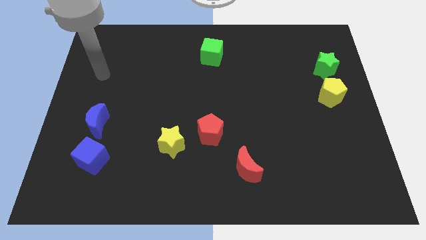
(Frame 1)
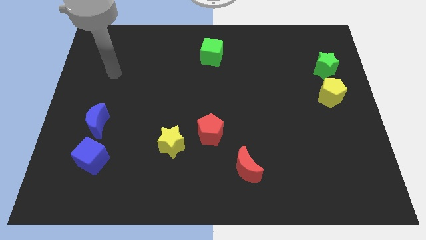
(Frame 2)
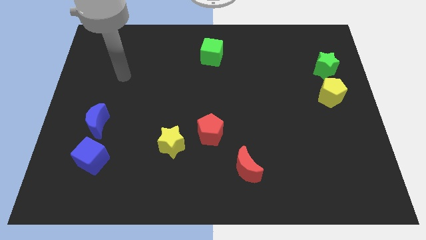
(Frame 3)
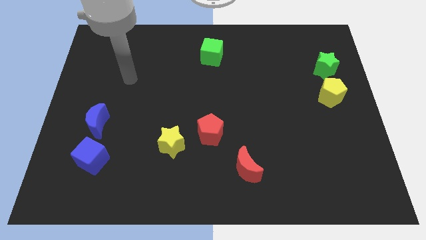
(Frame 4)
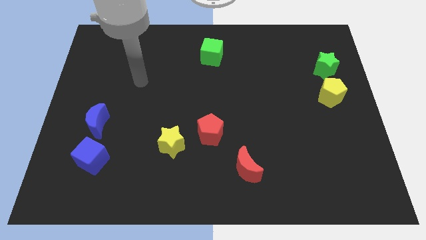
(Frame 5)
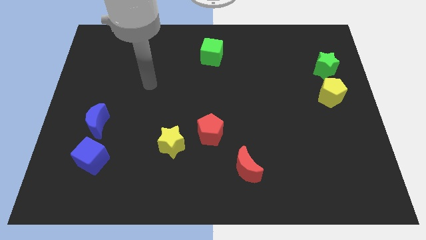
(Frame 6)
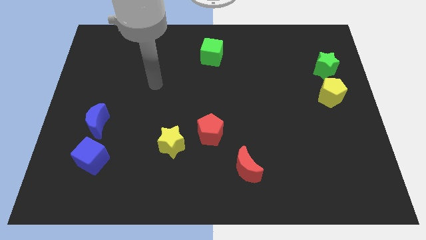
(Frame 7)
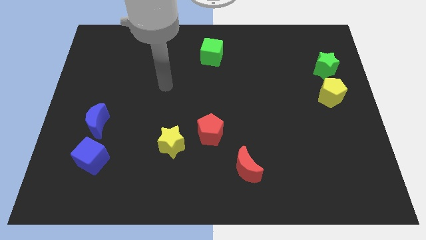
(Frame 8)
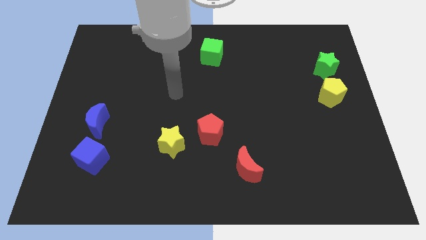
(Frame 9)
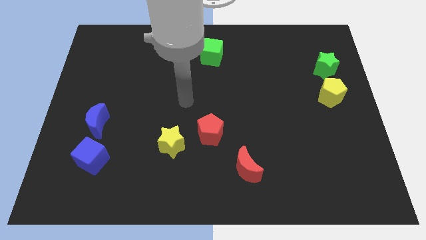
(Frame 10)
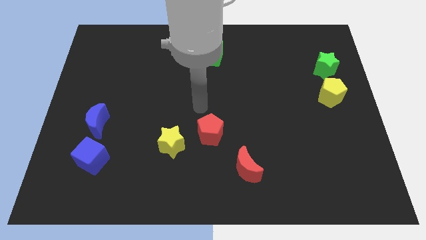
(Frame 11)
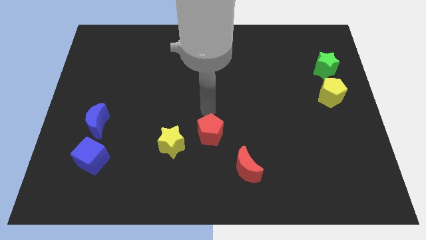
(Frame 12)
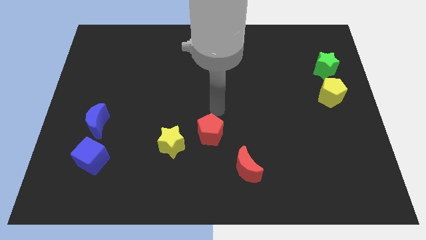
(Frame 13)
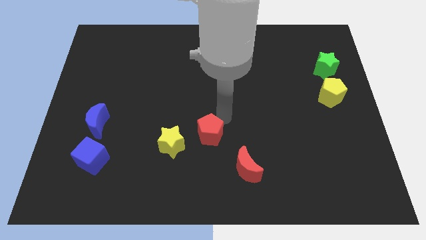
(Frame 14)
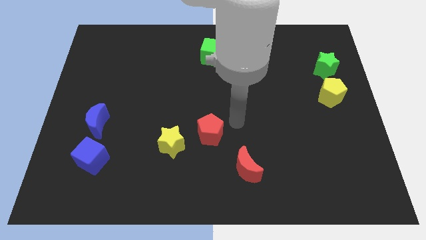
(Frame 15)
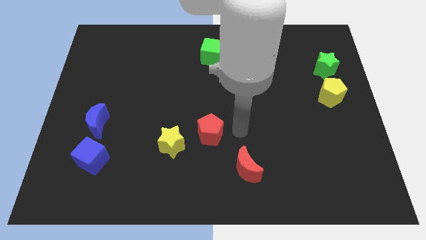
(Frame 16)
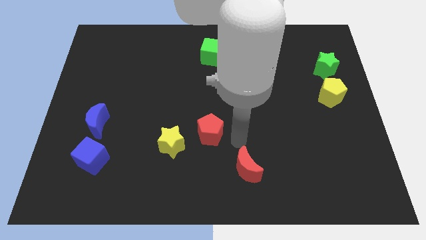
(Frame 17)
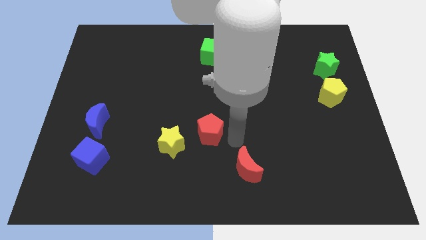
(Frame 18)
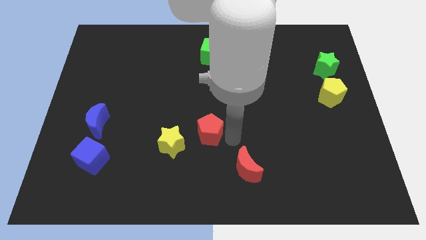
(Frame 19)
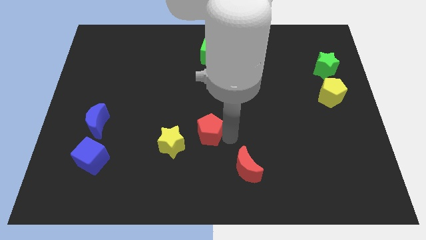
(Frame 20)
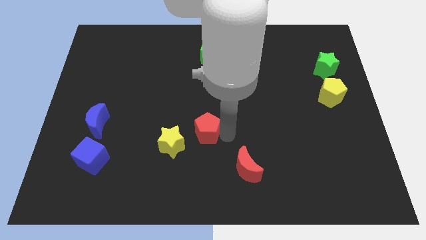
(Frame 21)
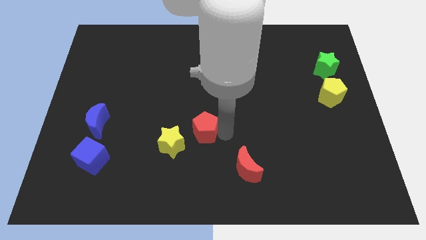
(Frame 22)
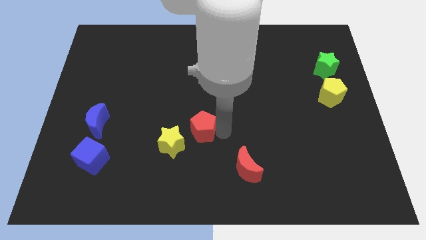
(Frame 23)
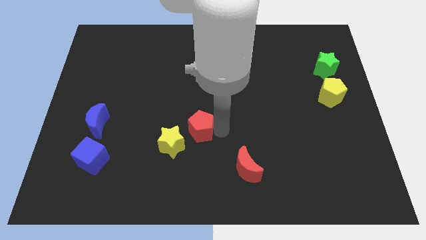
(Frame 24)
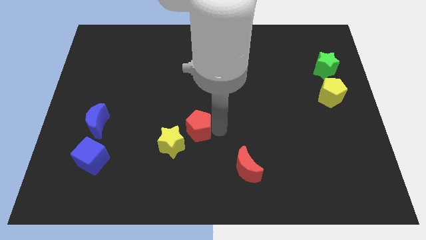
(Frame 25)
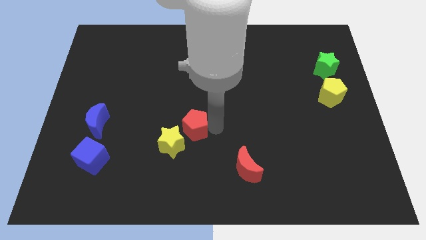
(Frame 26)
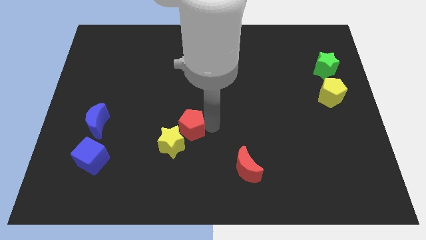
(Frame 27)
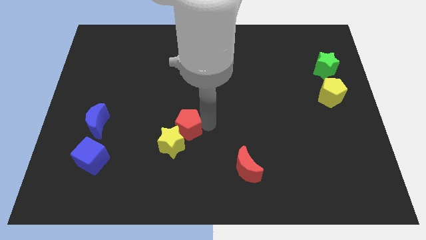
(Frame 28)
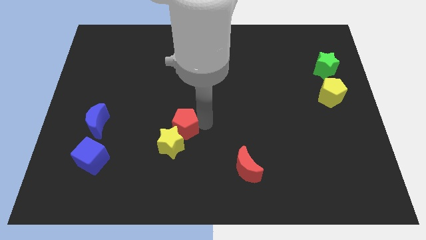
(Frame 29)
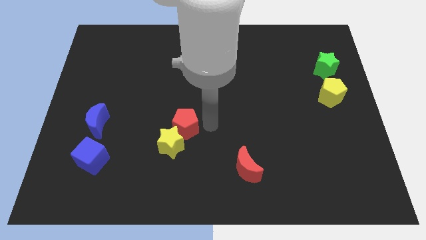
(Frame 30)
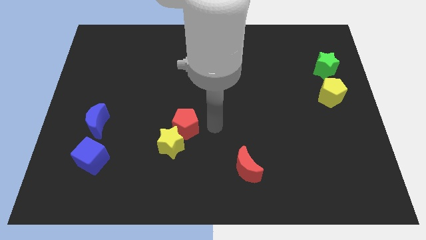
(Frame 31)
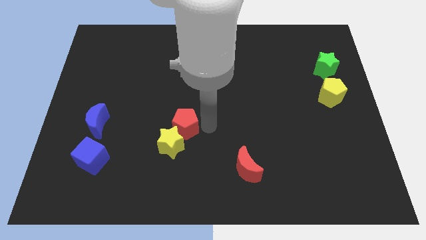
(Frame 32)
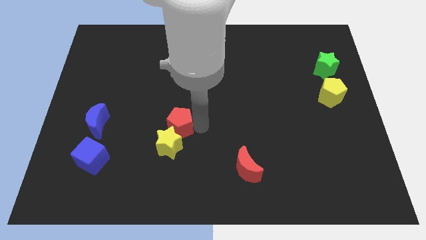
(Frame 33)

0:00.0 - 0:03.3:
push the red pentagon a little bit to the left

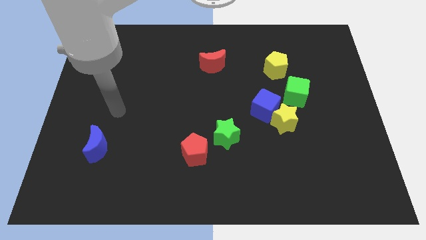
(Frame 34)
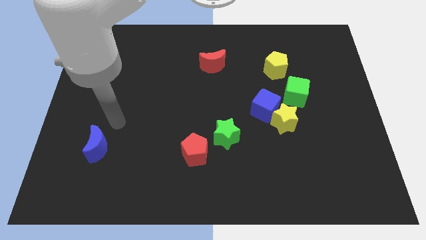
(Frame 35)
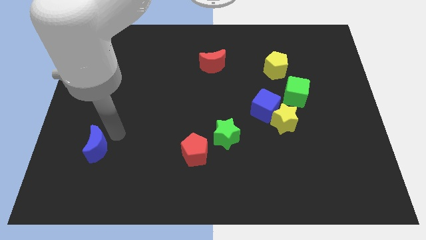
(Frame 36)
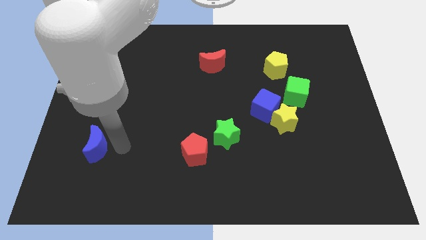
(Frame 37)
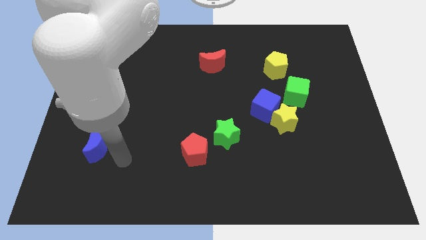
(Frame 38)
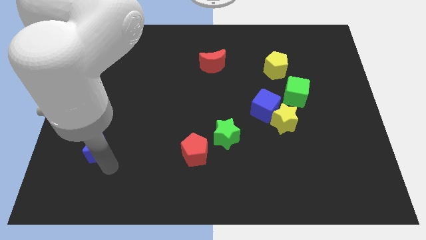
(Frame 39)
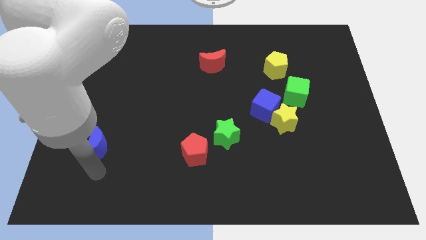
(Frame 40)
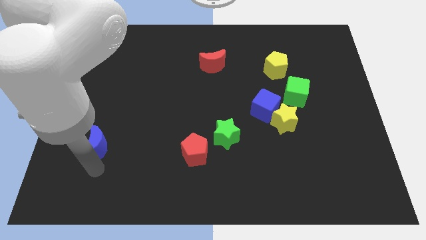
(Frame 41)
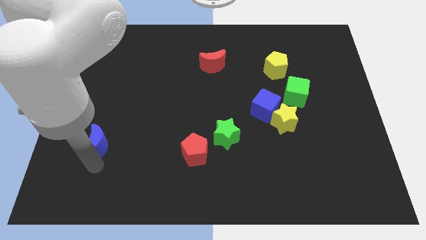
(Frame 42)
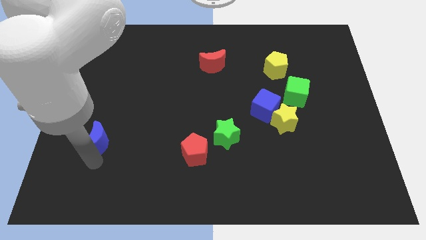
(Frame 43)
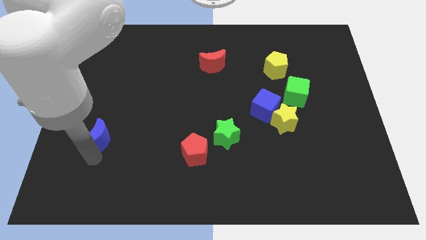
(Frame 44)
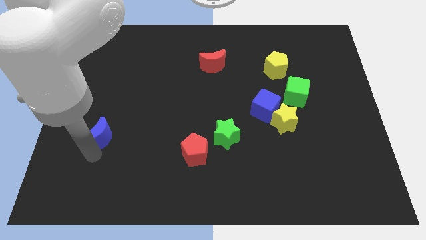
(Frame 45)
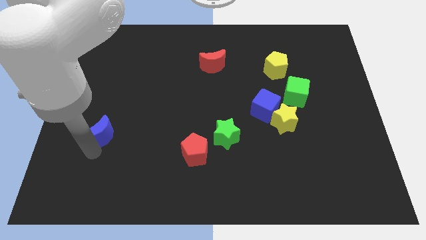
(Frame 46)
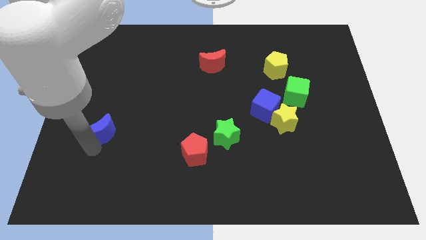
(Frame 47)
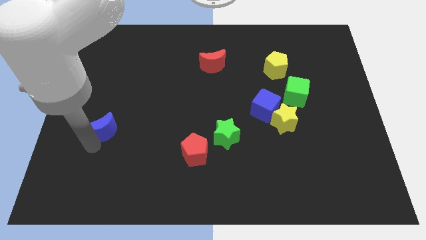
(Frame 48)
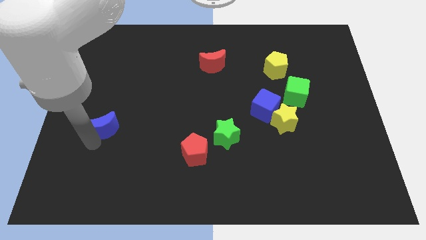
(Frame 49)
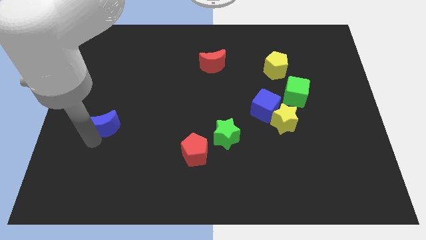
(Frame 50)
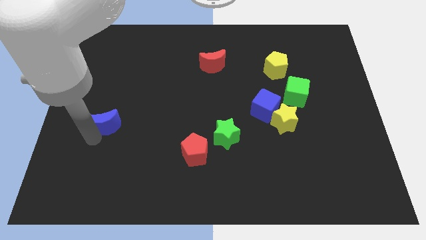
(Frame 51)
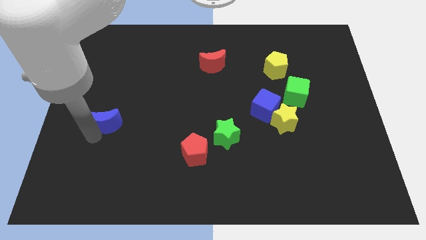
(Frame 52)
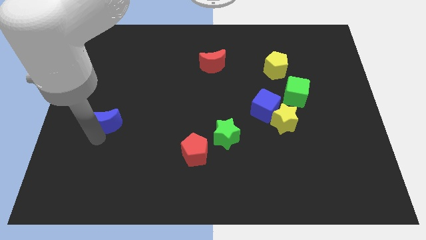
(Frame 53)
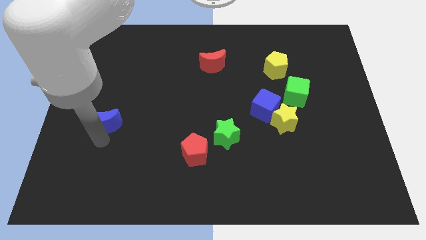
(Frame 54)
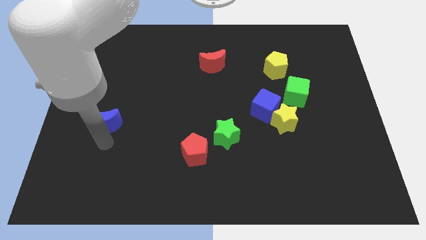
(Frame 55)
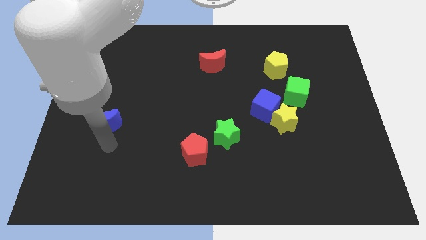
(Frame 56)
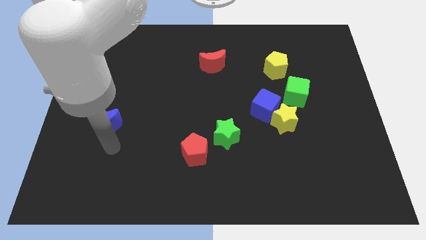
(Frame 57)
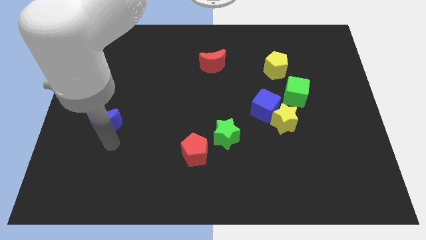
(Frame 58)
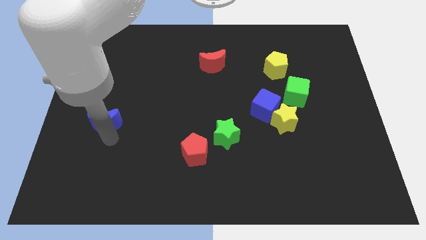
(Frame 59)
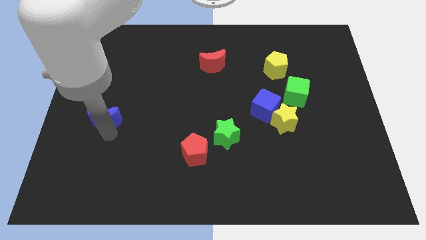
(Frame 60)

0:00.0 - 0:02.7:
slightly push the blue moon up

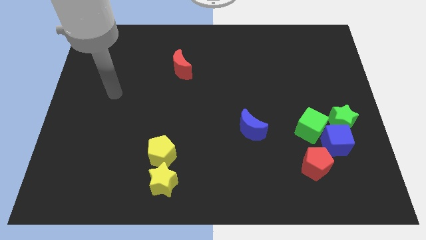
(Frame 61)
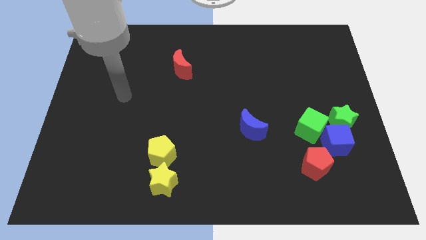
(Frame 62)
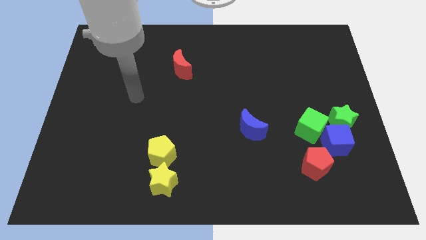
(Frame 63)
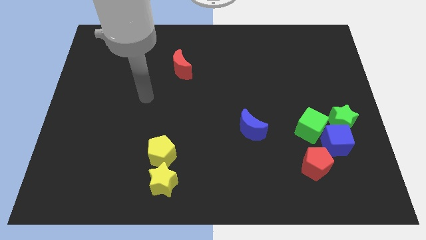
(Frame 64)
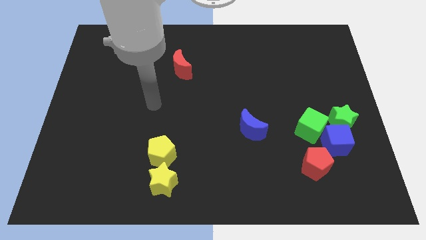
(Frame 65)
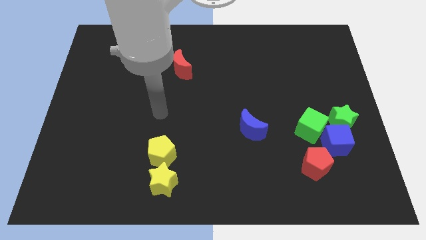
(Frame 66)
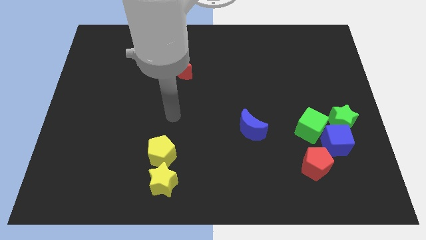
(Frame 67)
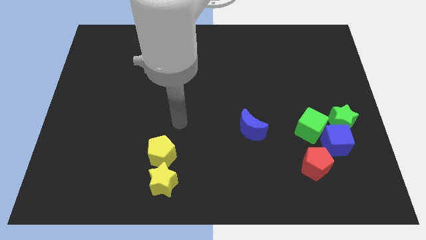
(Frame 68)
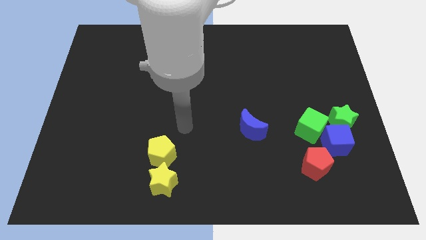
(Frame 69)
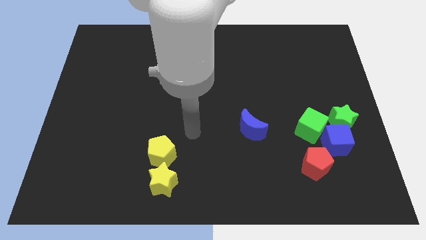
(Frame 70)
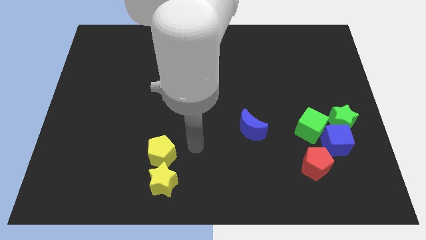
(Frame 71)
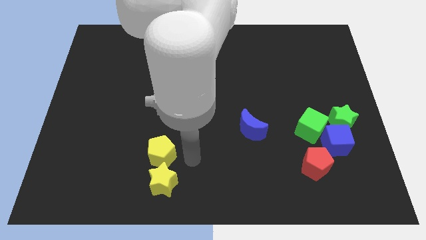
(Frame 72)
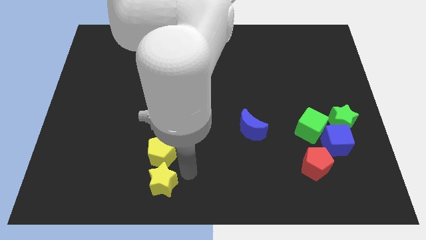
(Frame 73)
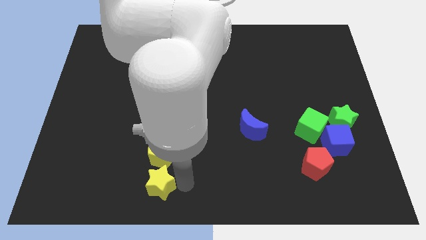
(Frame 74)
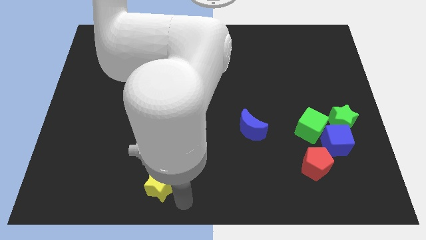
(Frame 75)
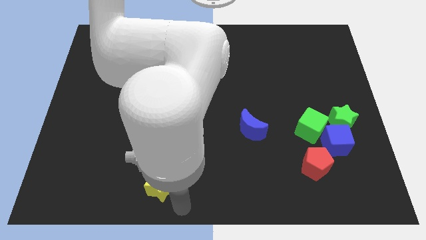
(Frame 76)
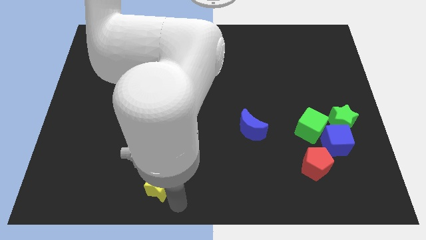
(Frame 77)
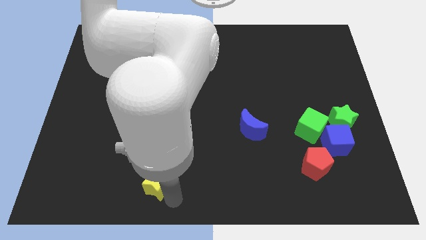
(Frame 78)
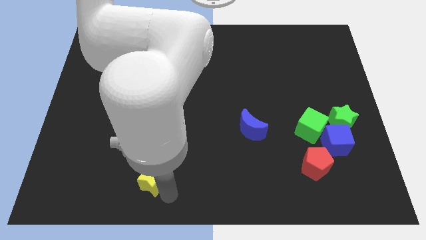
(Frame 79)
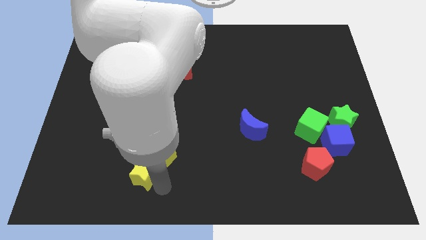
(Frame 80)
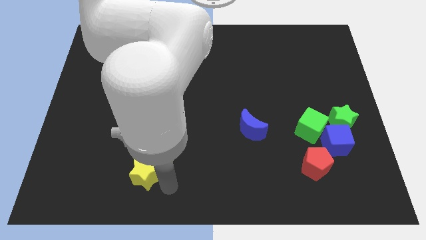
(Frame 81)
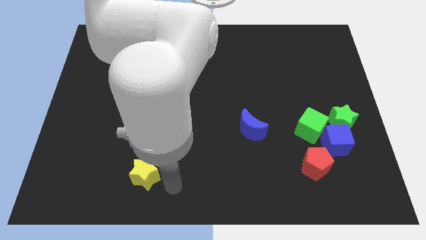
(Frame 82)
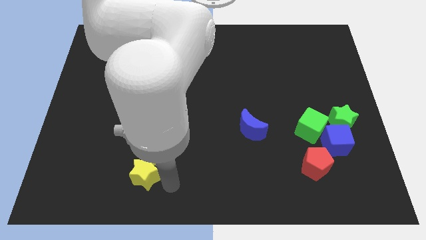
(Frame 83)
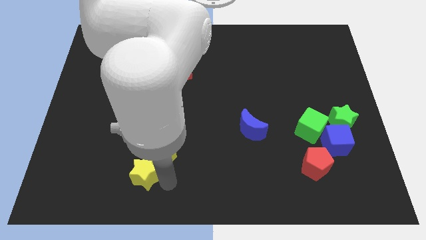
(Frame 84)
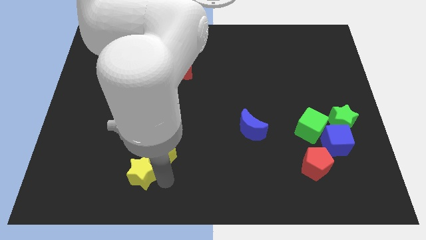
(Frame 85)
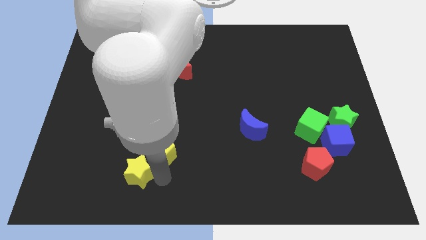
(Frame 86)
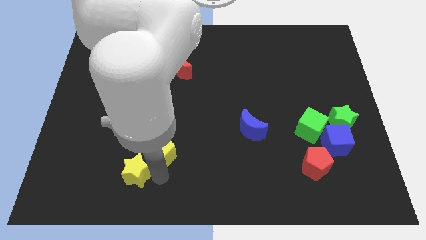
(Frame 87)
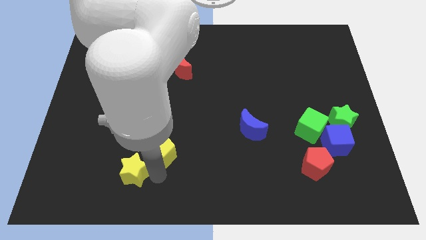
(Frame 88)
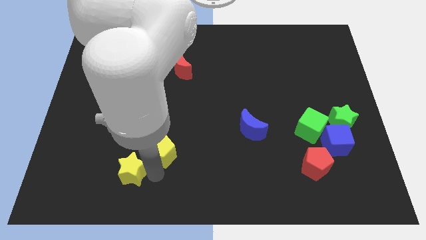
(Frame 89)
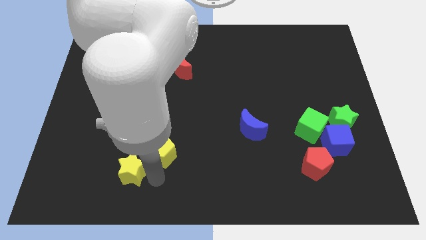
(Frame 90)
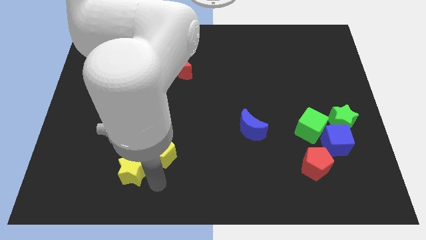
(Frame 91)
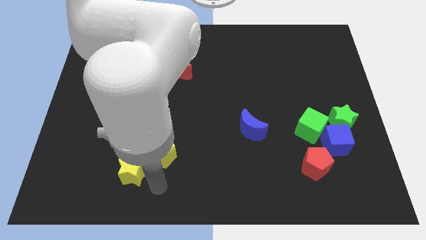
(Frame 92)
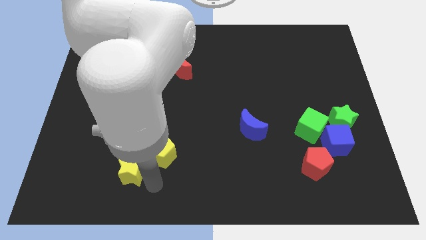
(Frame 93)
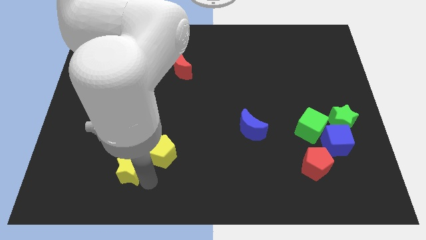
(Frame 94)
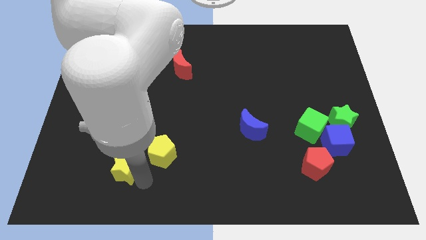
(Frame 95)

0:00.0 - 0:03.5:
slide the yellow star up and then to the left slightly
